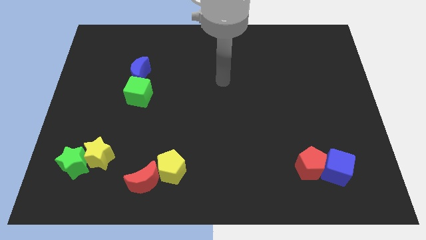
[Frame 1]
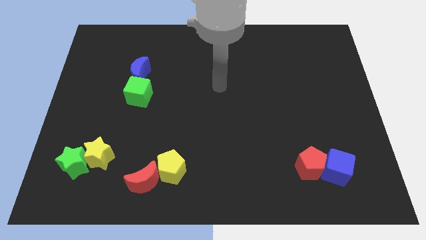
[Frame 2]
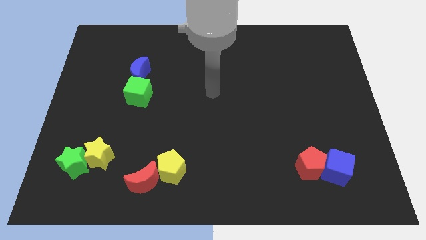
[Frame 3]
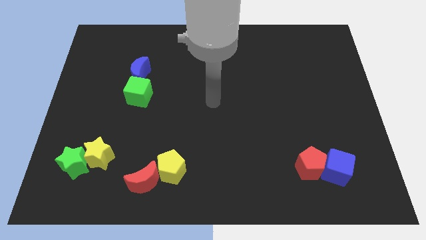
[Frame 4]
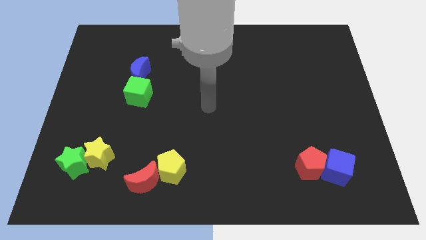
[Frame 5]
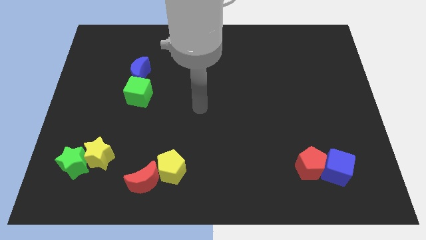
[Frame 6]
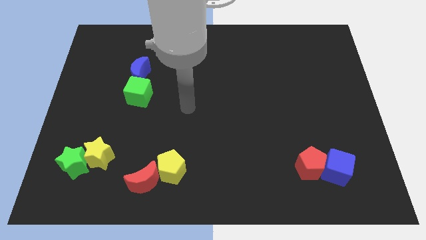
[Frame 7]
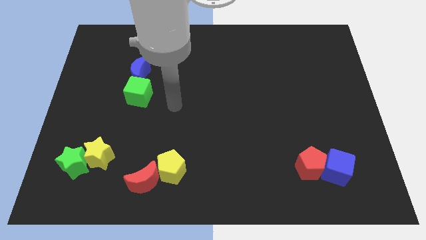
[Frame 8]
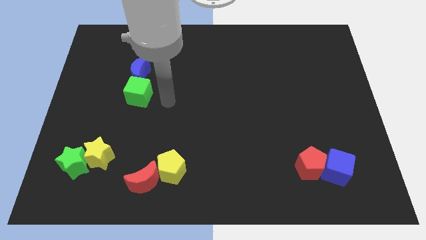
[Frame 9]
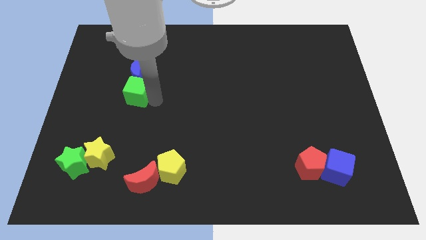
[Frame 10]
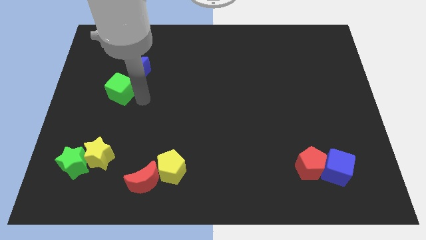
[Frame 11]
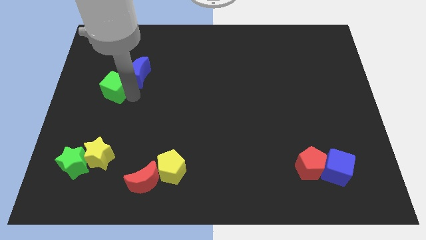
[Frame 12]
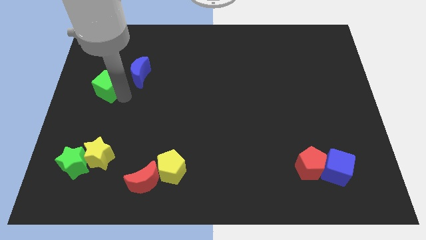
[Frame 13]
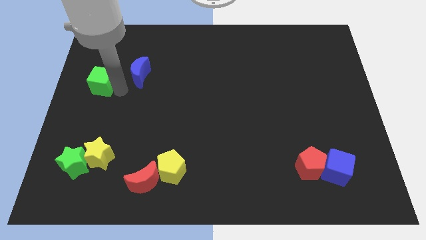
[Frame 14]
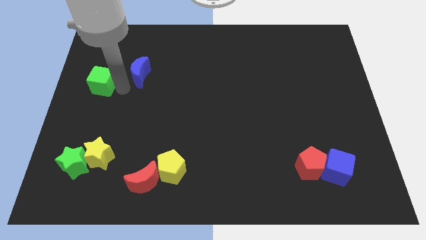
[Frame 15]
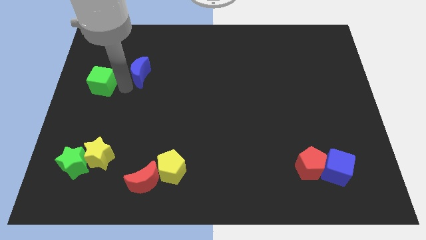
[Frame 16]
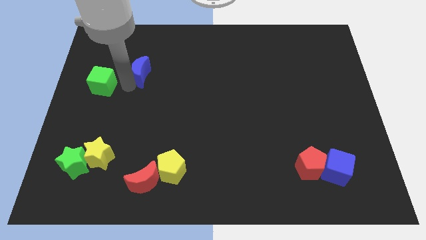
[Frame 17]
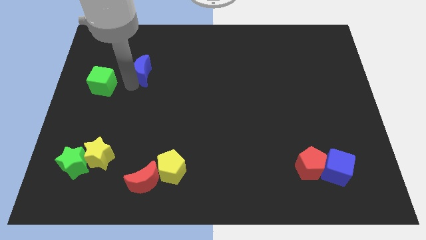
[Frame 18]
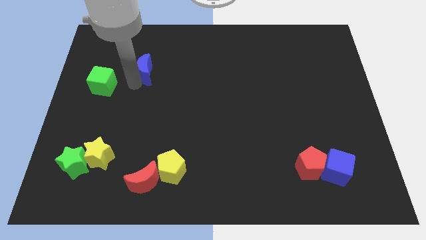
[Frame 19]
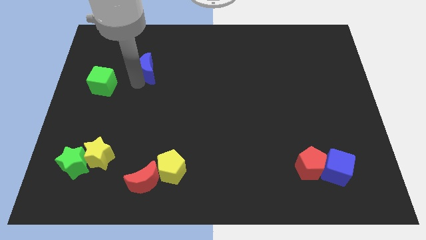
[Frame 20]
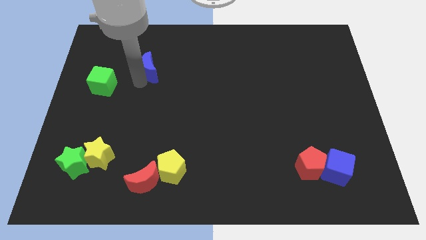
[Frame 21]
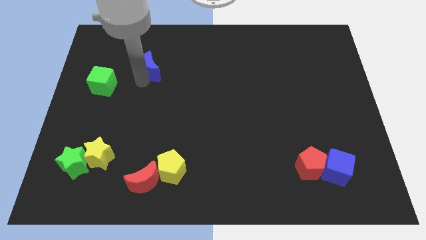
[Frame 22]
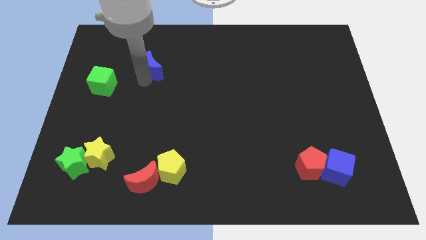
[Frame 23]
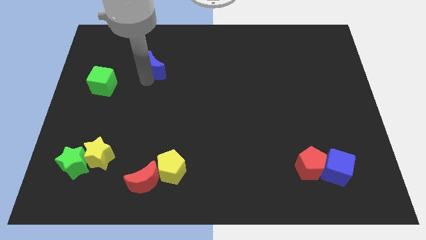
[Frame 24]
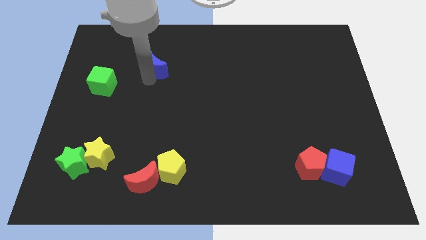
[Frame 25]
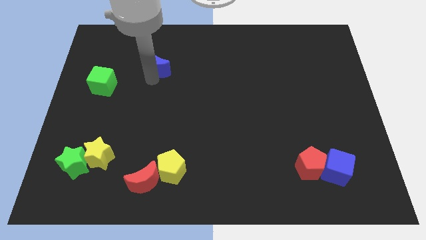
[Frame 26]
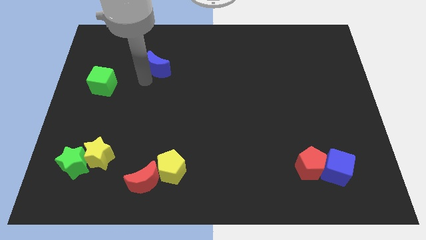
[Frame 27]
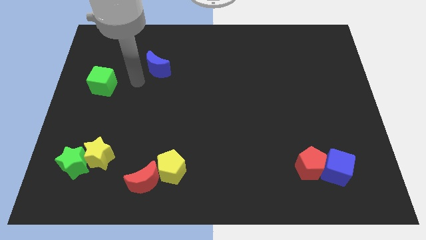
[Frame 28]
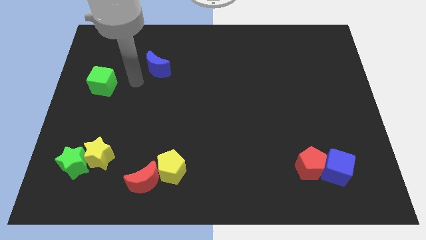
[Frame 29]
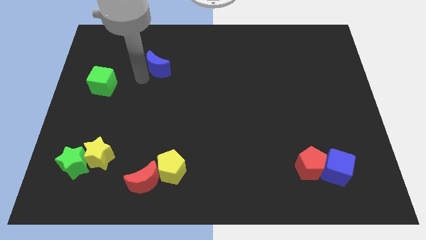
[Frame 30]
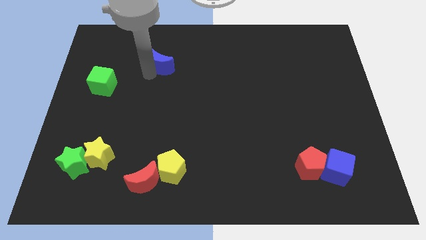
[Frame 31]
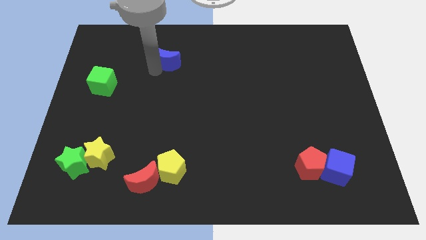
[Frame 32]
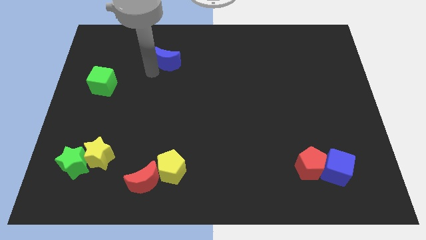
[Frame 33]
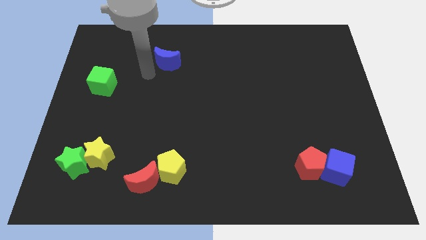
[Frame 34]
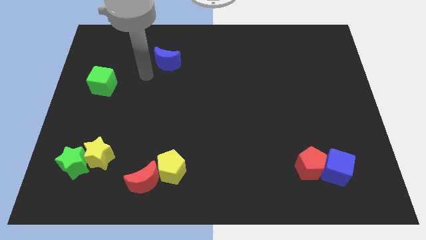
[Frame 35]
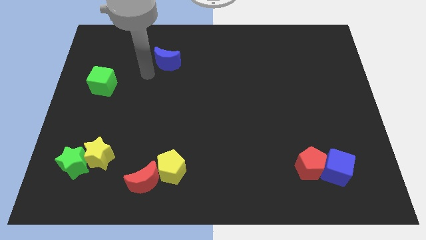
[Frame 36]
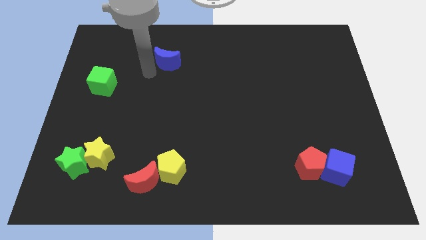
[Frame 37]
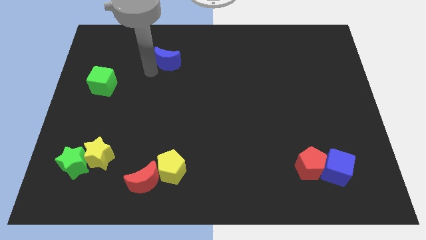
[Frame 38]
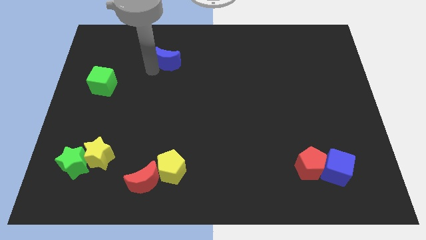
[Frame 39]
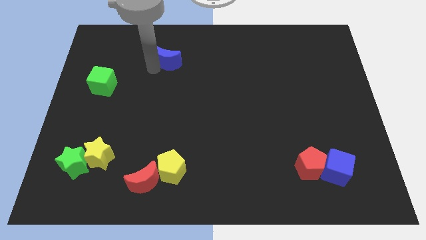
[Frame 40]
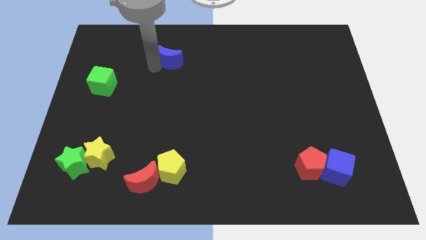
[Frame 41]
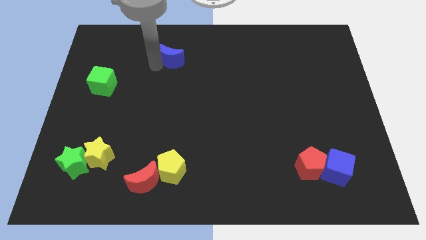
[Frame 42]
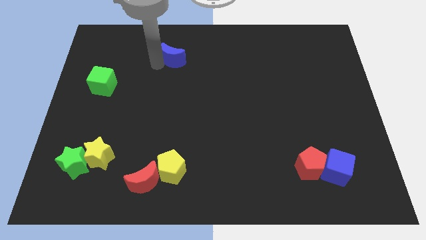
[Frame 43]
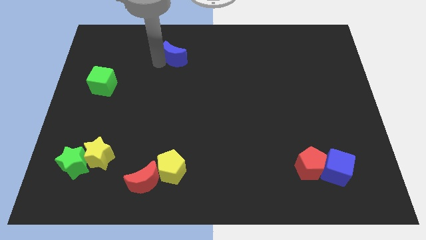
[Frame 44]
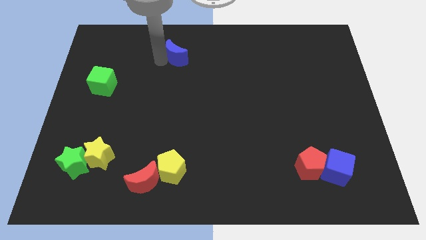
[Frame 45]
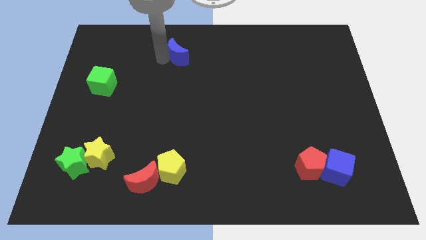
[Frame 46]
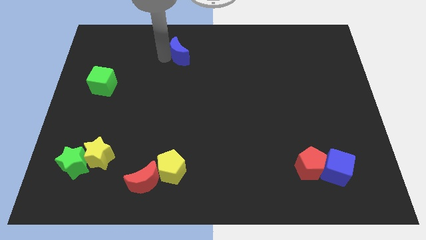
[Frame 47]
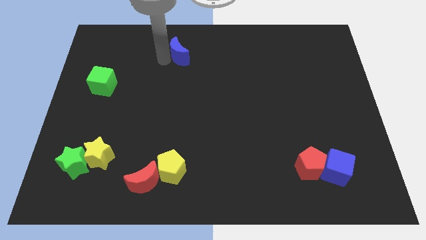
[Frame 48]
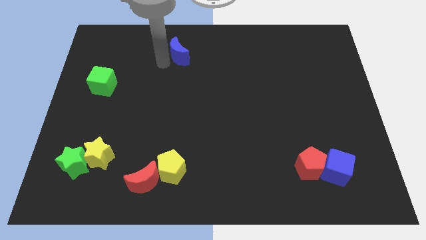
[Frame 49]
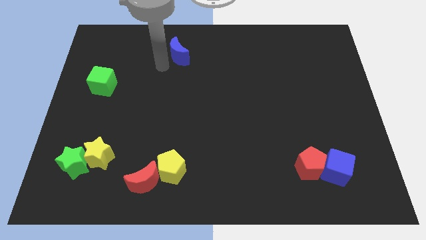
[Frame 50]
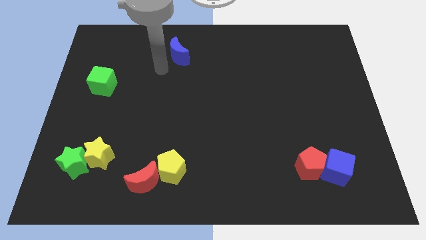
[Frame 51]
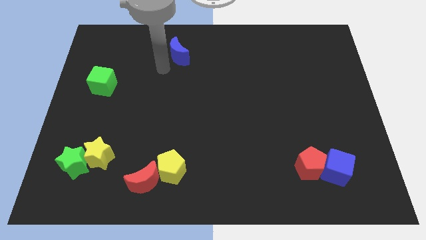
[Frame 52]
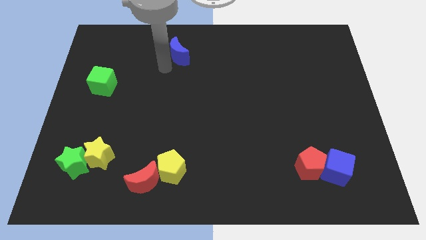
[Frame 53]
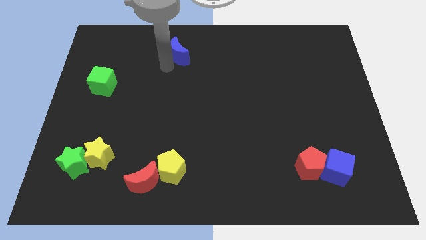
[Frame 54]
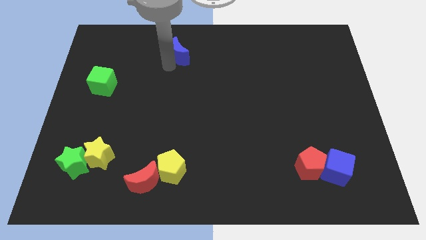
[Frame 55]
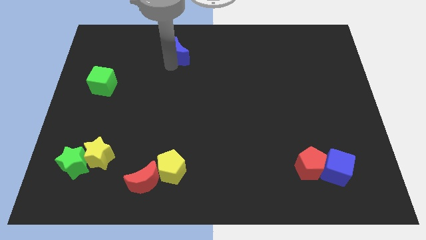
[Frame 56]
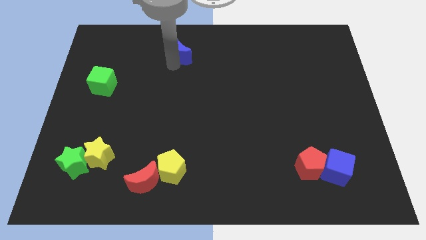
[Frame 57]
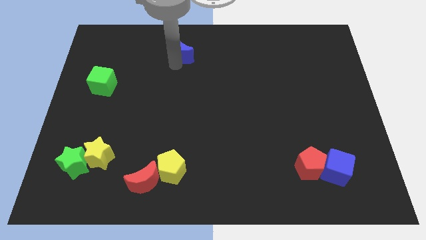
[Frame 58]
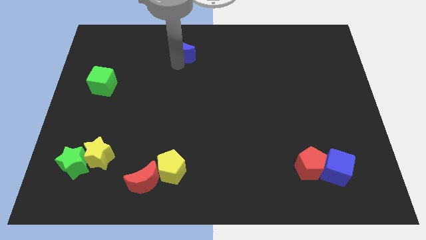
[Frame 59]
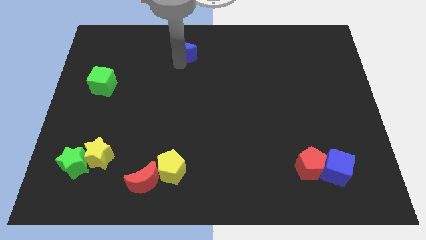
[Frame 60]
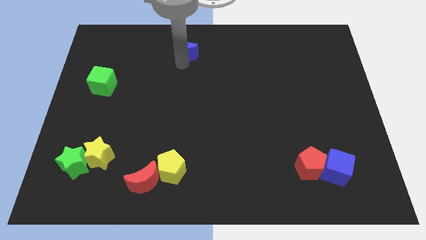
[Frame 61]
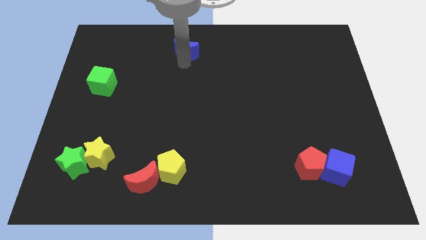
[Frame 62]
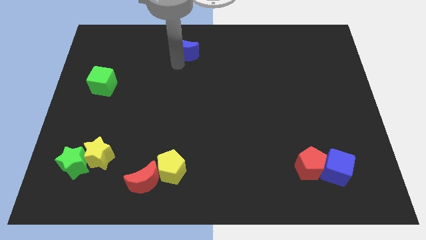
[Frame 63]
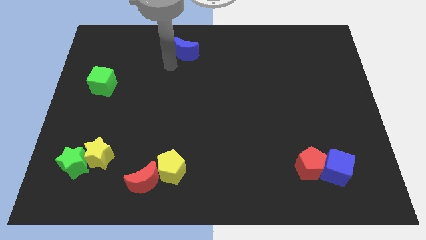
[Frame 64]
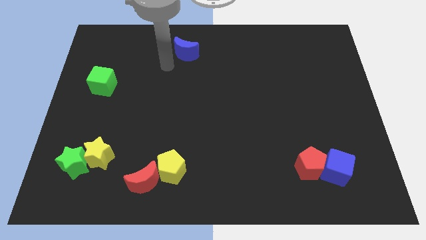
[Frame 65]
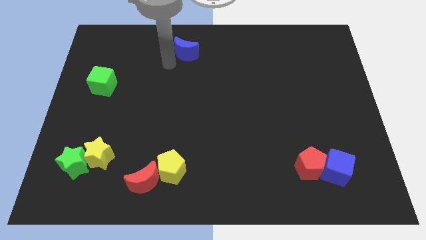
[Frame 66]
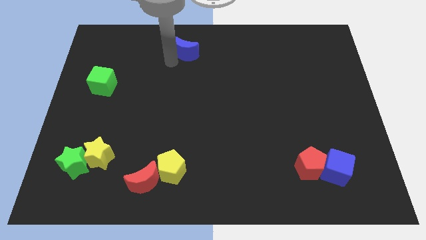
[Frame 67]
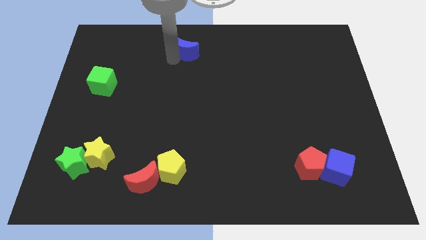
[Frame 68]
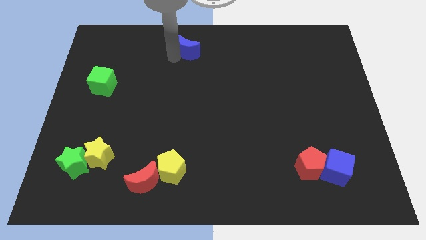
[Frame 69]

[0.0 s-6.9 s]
push the blue moon to the top side
